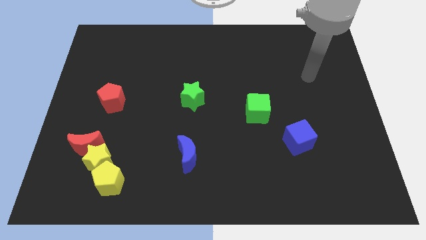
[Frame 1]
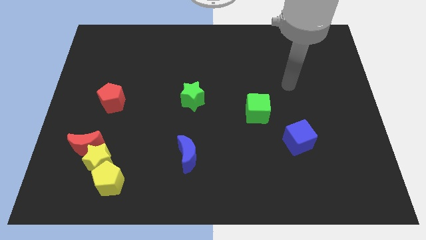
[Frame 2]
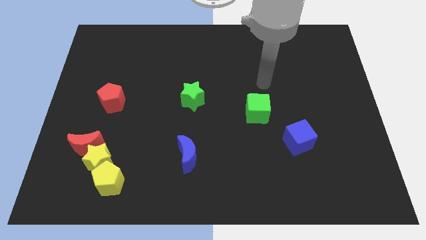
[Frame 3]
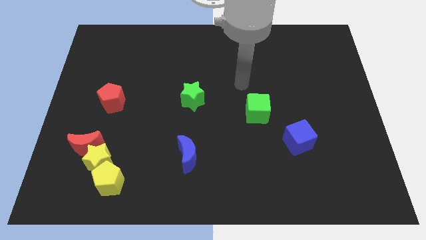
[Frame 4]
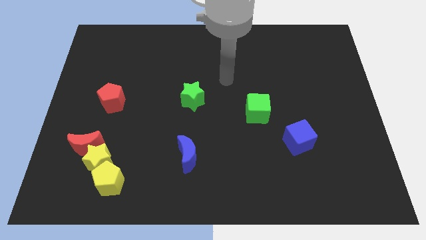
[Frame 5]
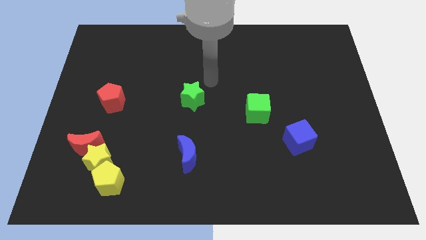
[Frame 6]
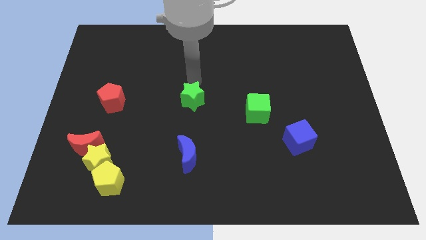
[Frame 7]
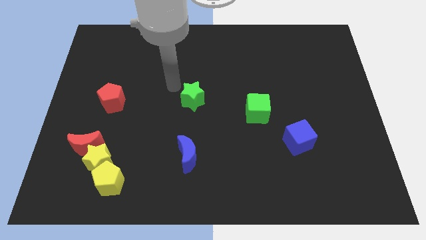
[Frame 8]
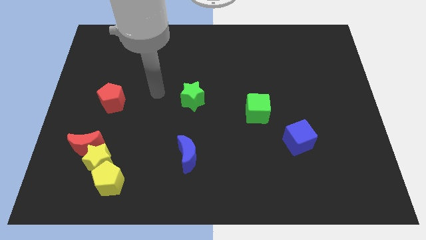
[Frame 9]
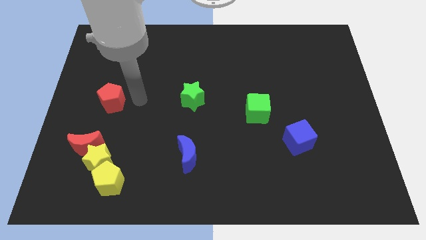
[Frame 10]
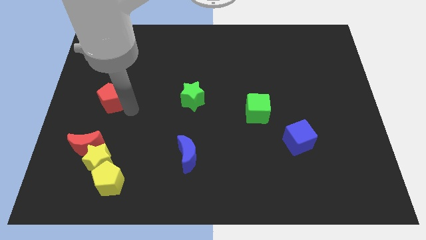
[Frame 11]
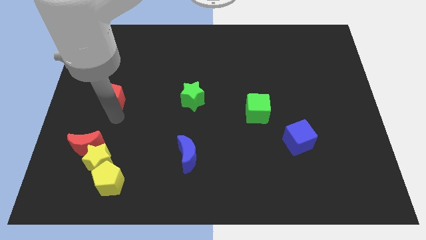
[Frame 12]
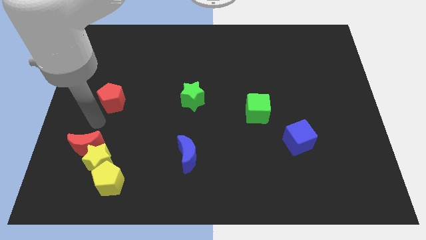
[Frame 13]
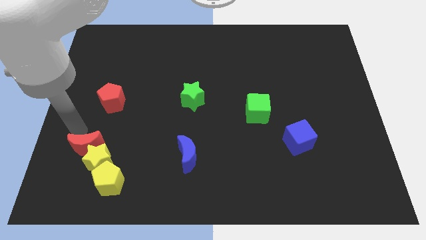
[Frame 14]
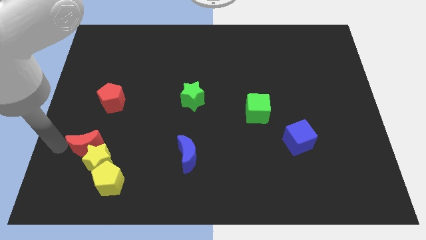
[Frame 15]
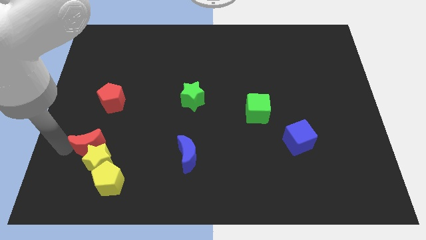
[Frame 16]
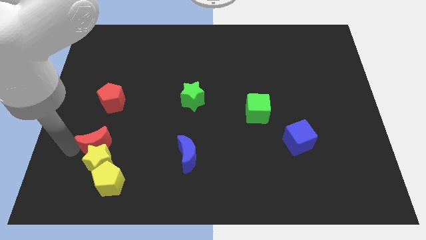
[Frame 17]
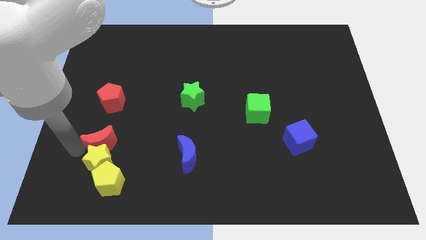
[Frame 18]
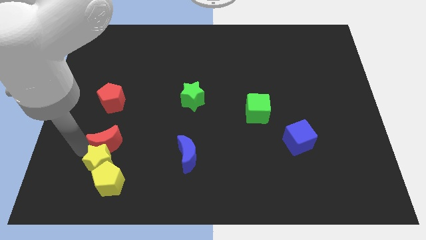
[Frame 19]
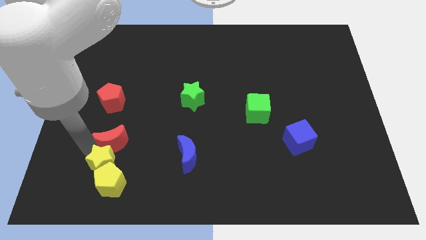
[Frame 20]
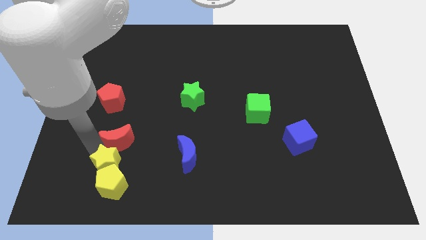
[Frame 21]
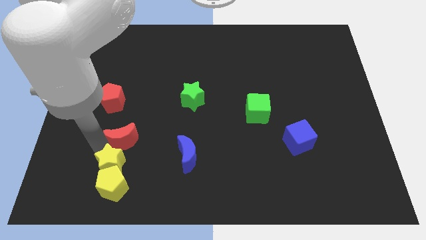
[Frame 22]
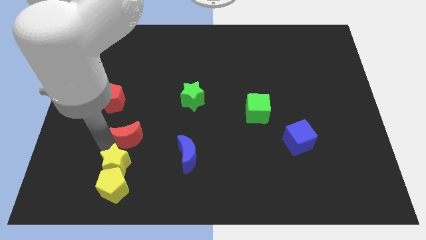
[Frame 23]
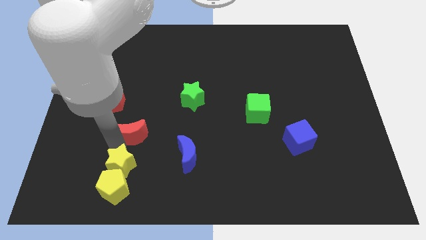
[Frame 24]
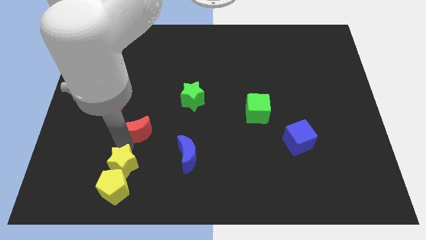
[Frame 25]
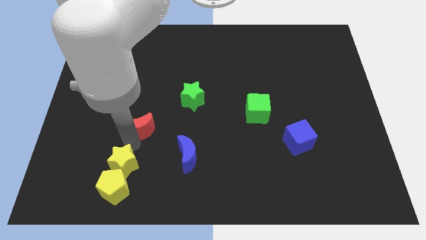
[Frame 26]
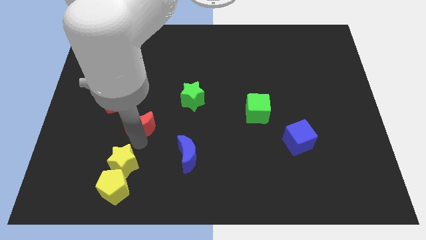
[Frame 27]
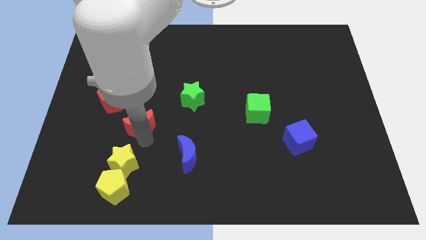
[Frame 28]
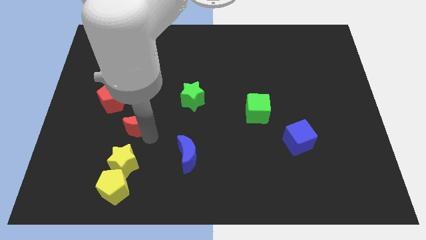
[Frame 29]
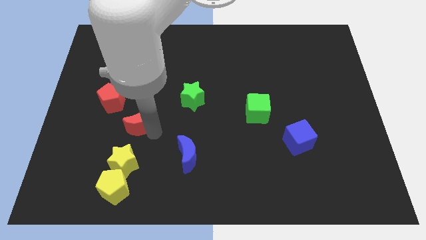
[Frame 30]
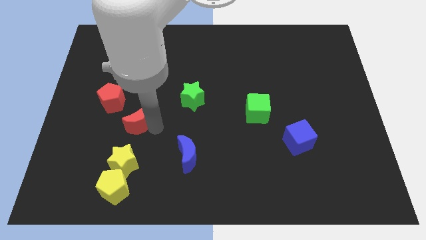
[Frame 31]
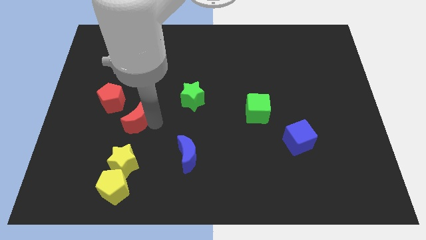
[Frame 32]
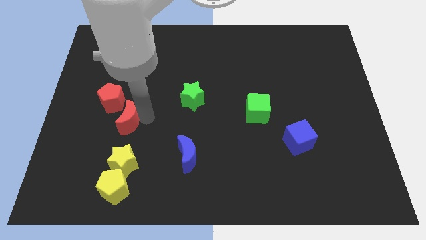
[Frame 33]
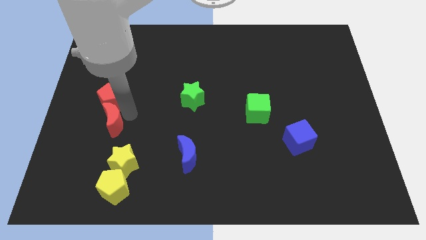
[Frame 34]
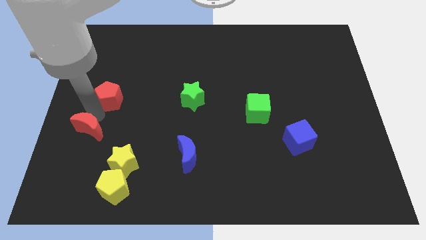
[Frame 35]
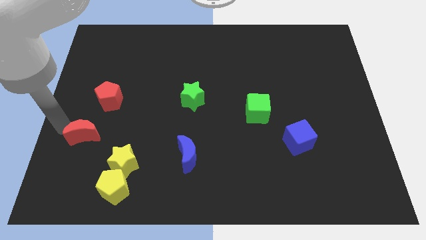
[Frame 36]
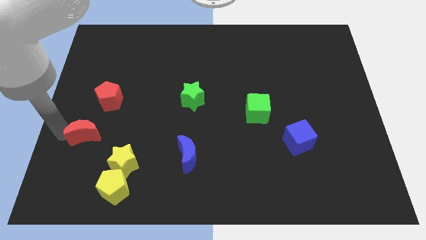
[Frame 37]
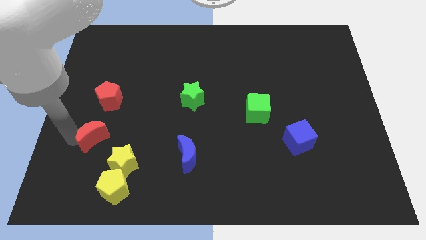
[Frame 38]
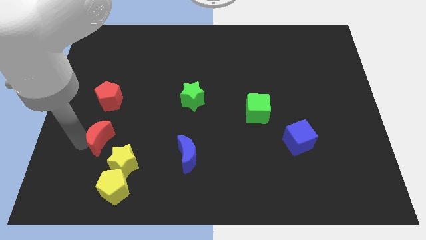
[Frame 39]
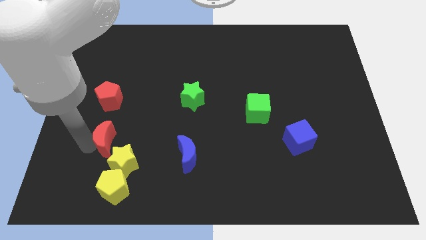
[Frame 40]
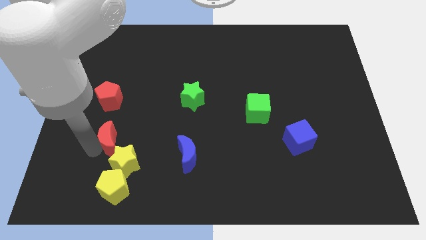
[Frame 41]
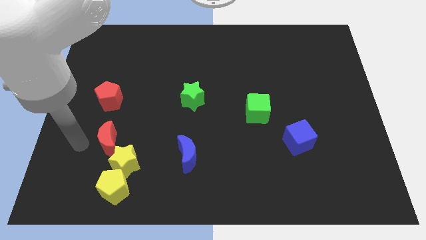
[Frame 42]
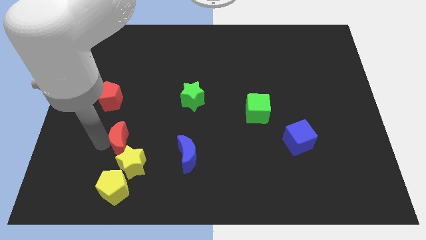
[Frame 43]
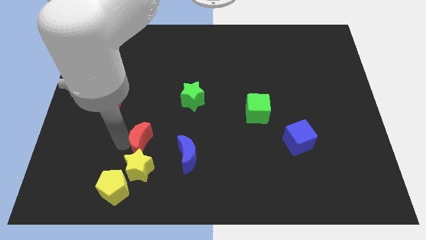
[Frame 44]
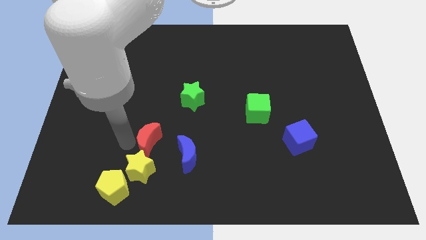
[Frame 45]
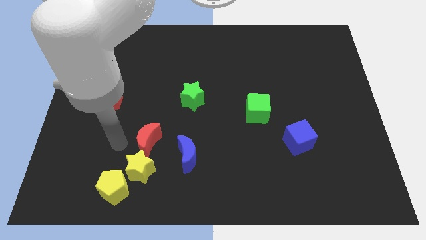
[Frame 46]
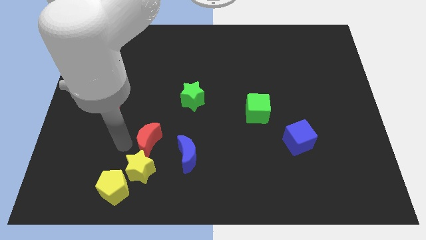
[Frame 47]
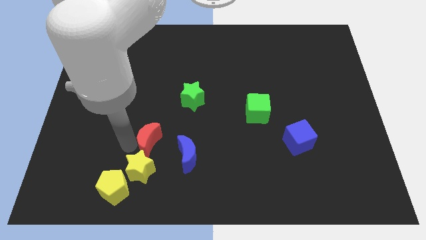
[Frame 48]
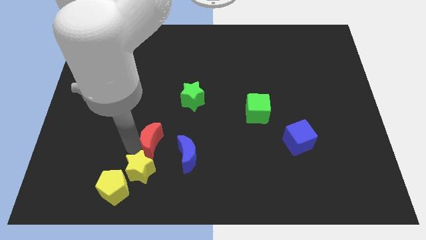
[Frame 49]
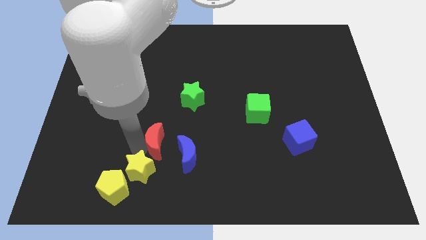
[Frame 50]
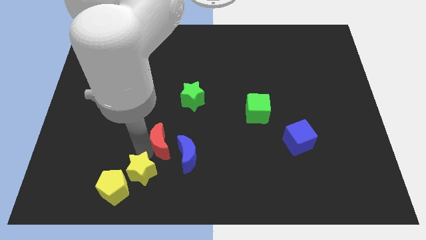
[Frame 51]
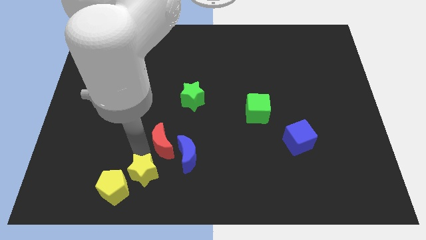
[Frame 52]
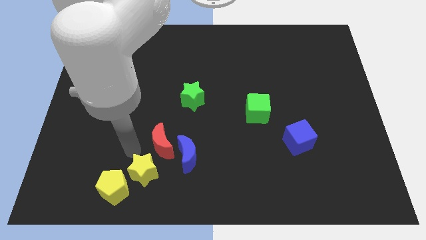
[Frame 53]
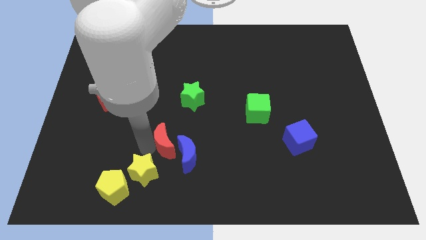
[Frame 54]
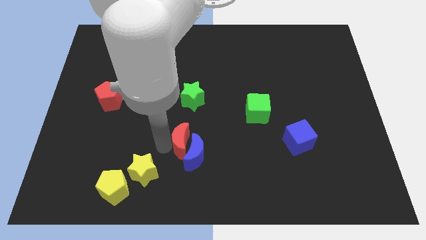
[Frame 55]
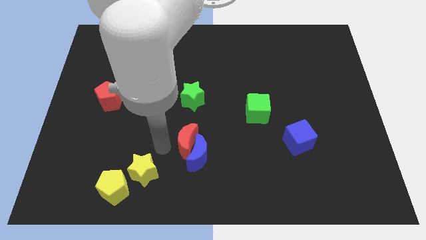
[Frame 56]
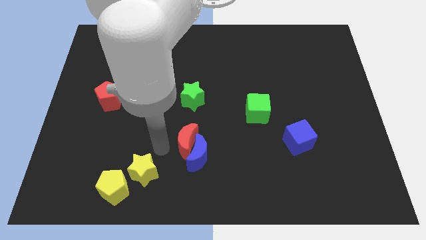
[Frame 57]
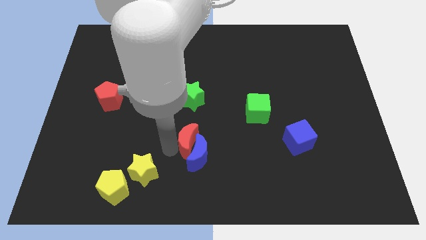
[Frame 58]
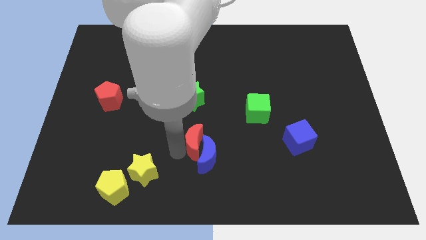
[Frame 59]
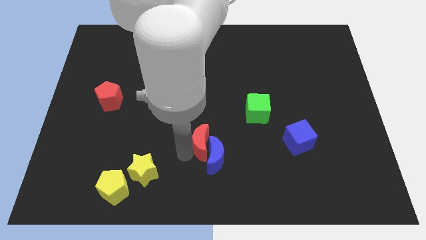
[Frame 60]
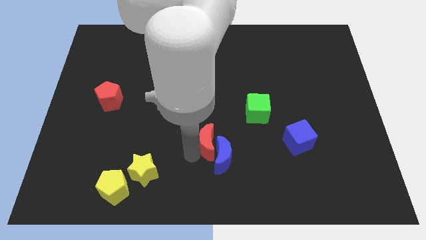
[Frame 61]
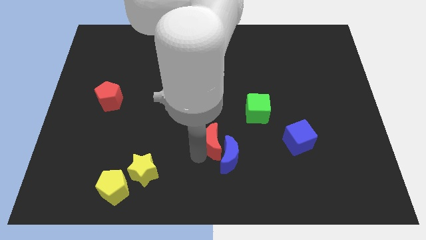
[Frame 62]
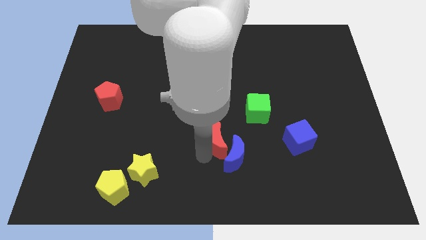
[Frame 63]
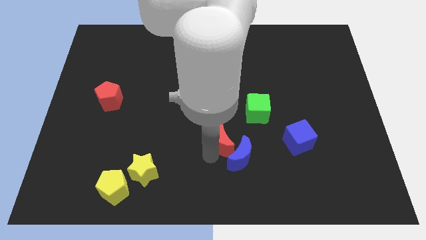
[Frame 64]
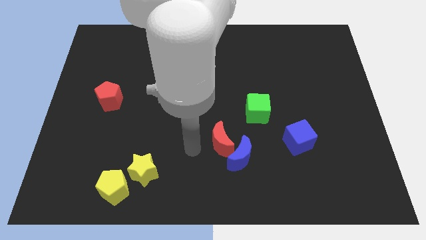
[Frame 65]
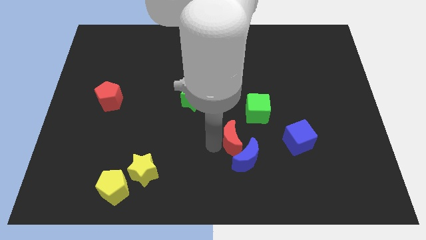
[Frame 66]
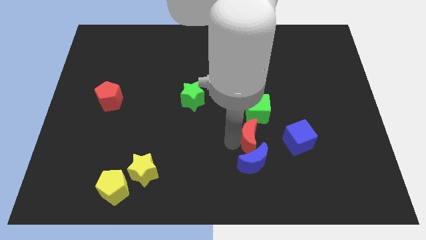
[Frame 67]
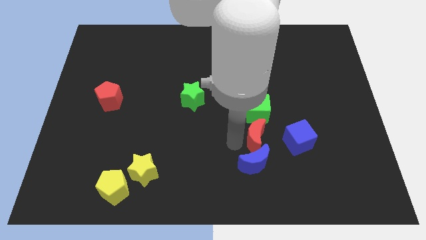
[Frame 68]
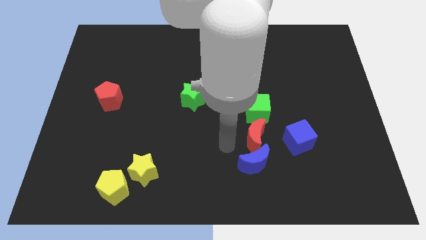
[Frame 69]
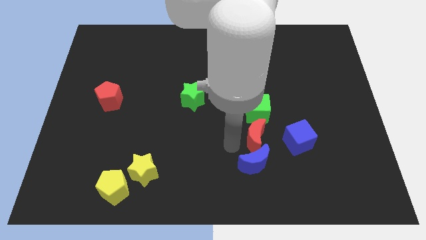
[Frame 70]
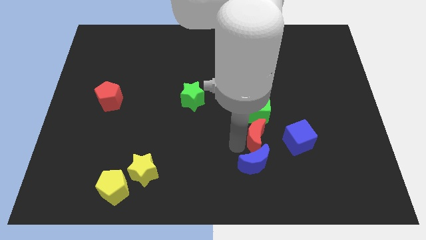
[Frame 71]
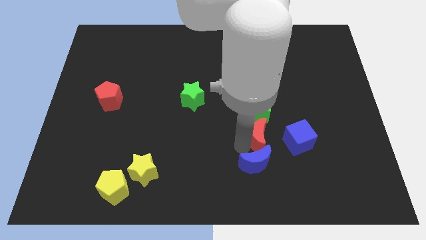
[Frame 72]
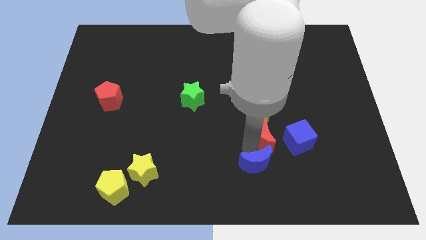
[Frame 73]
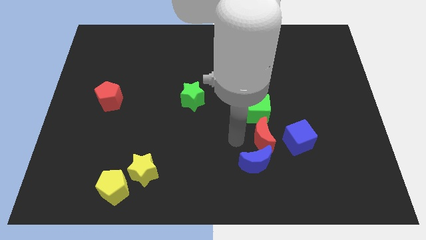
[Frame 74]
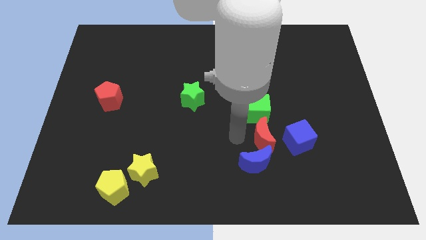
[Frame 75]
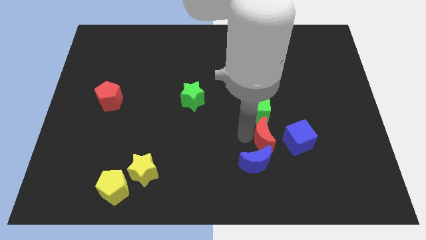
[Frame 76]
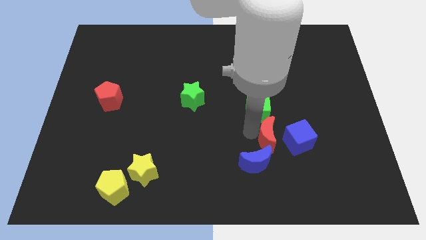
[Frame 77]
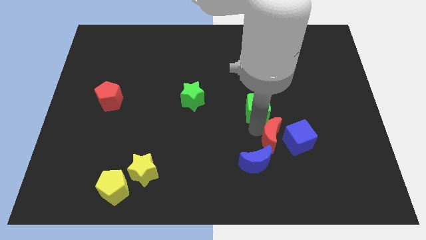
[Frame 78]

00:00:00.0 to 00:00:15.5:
put the red moon close to the blue cube

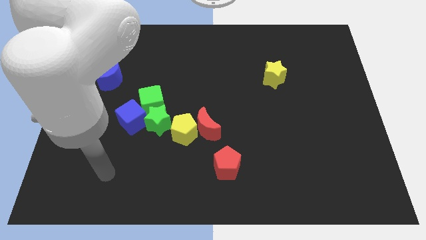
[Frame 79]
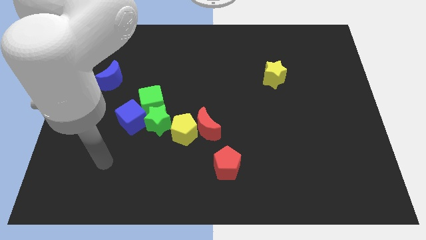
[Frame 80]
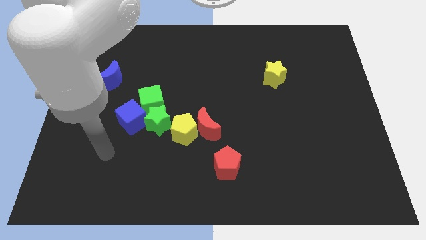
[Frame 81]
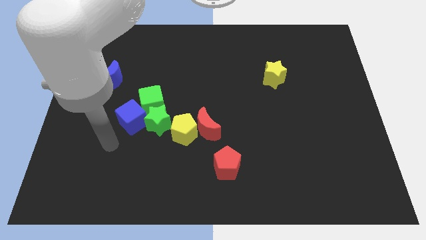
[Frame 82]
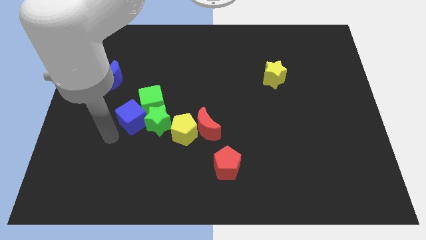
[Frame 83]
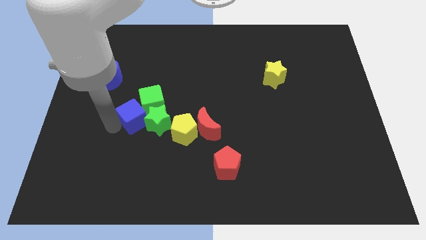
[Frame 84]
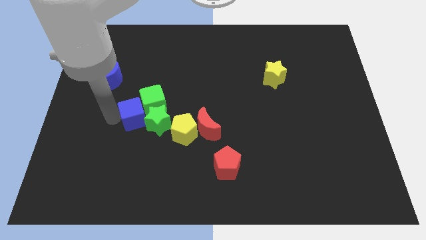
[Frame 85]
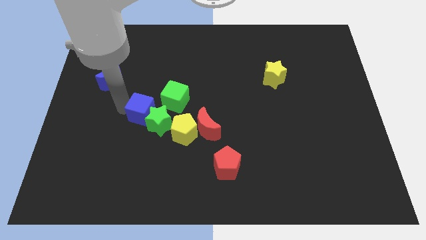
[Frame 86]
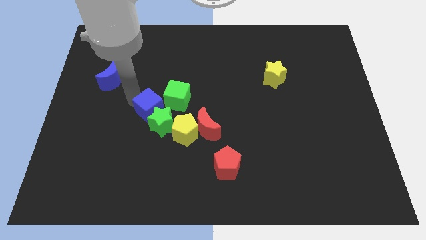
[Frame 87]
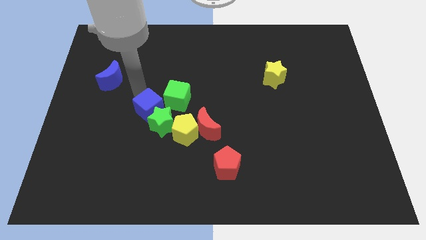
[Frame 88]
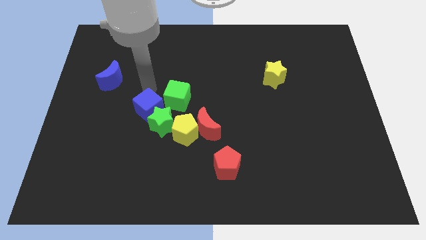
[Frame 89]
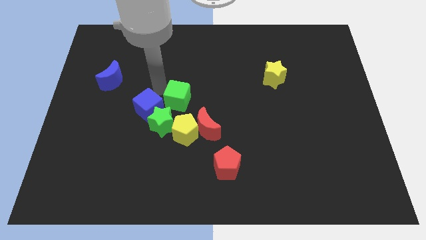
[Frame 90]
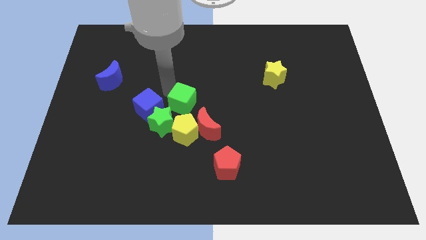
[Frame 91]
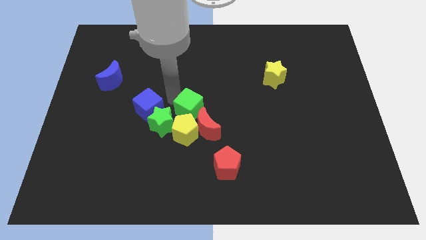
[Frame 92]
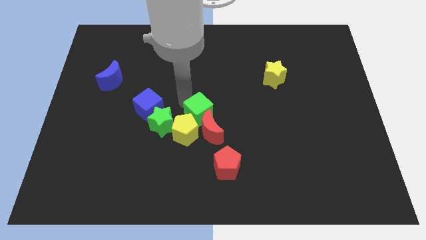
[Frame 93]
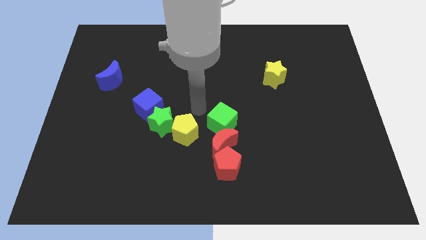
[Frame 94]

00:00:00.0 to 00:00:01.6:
push the red moon next to the red pentagon
